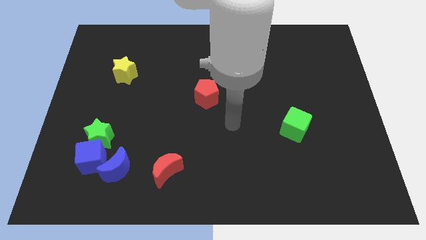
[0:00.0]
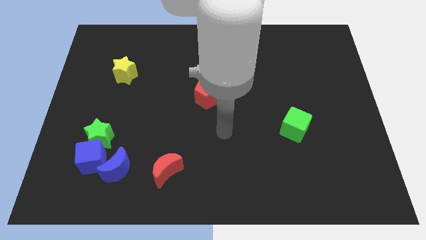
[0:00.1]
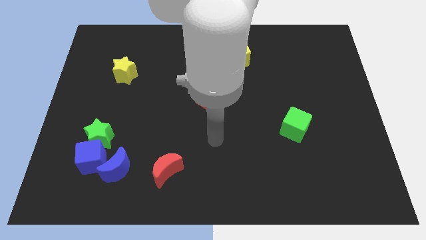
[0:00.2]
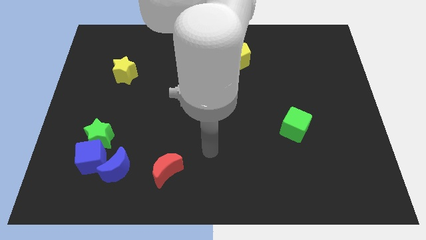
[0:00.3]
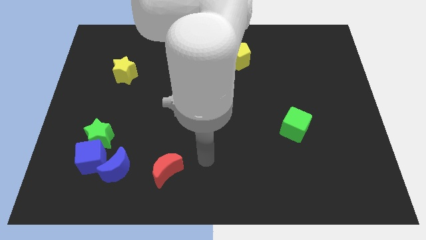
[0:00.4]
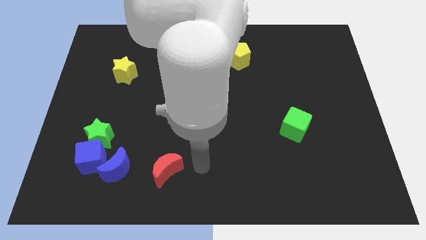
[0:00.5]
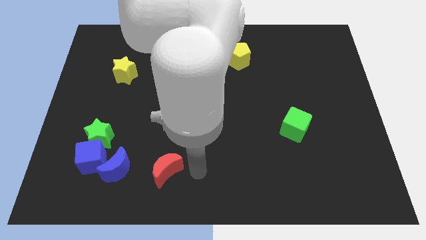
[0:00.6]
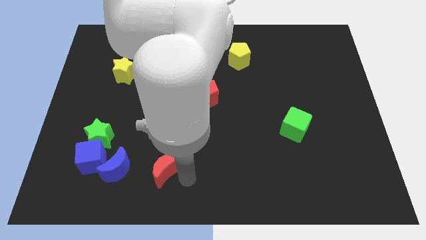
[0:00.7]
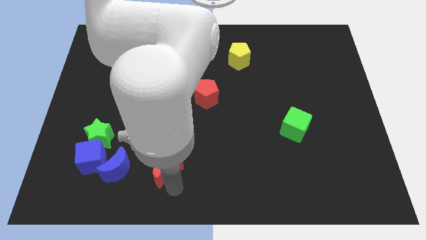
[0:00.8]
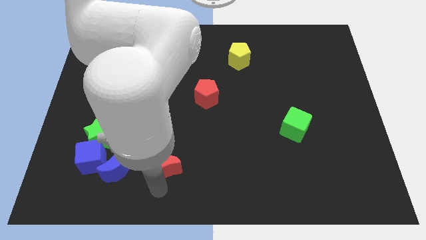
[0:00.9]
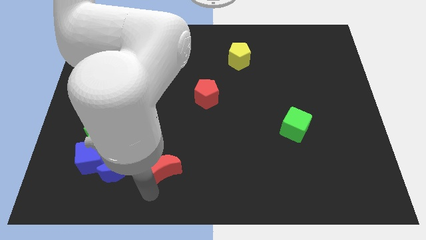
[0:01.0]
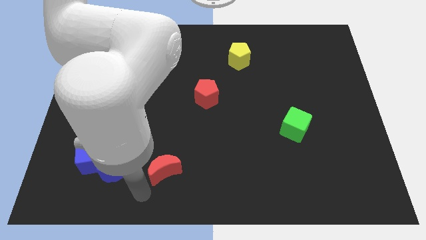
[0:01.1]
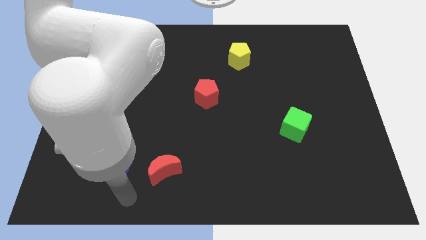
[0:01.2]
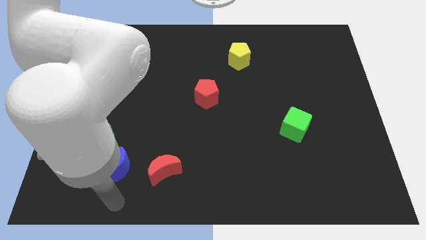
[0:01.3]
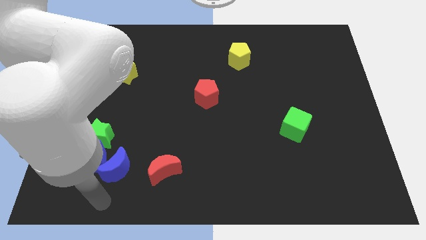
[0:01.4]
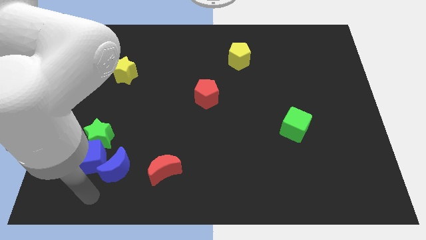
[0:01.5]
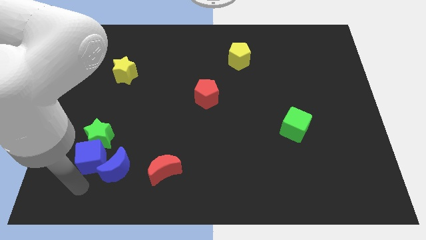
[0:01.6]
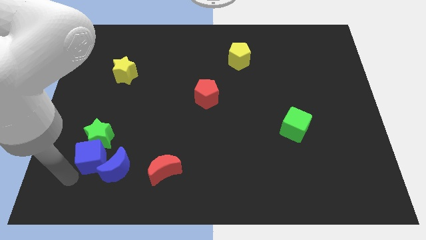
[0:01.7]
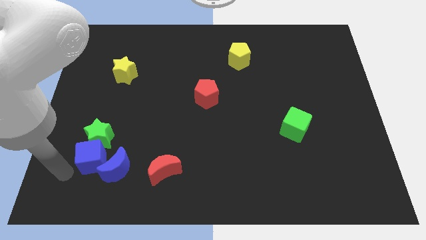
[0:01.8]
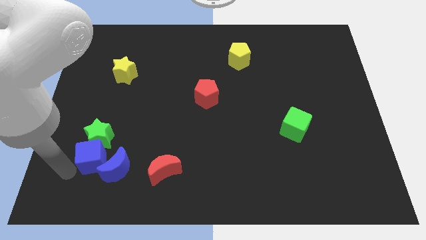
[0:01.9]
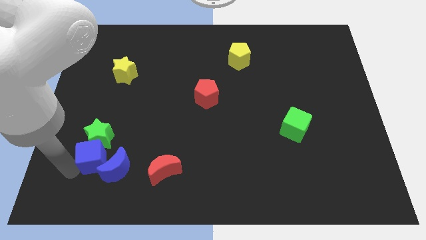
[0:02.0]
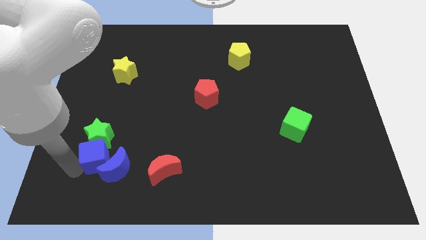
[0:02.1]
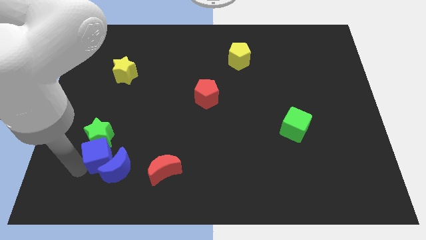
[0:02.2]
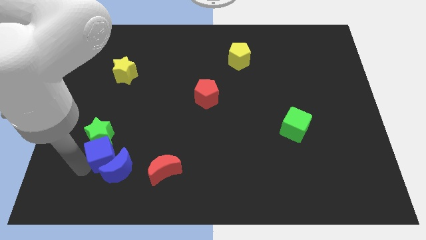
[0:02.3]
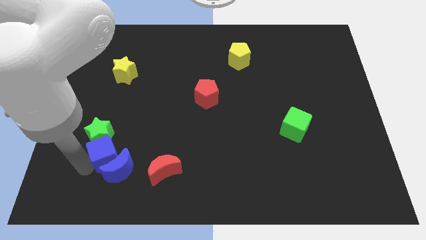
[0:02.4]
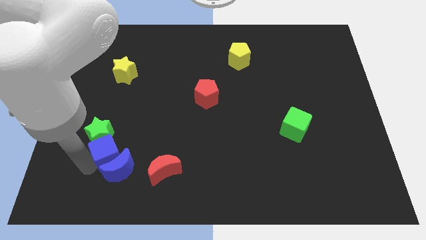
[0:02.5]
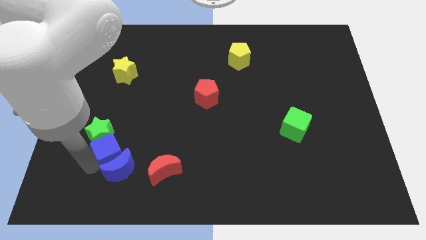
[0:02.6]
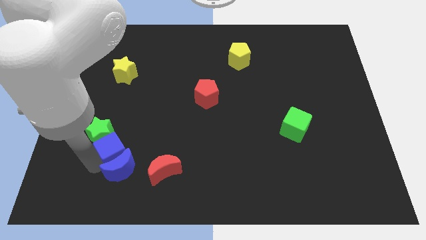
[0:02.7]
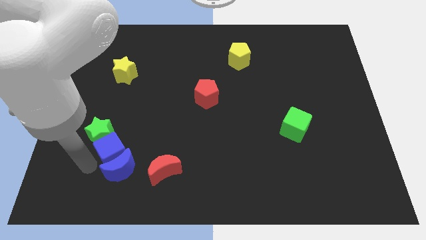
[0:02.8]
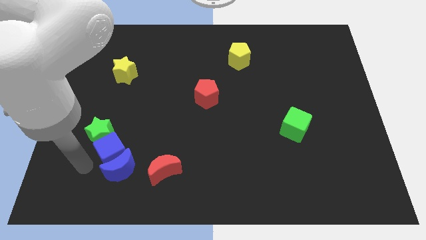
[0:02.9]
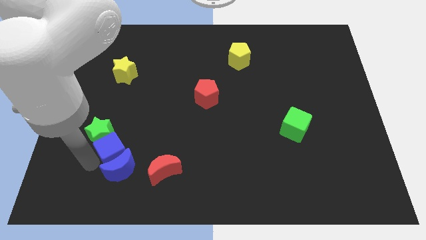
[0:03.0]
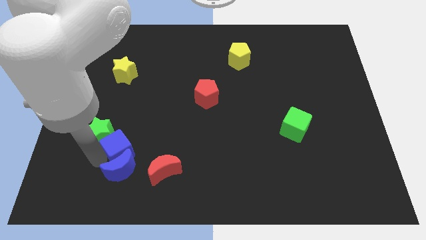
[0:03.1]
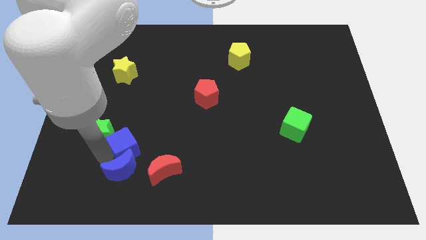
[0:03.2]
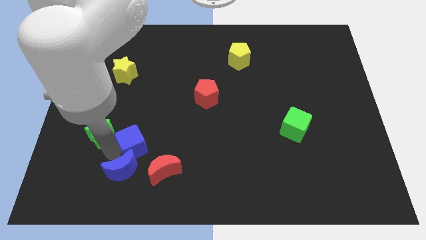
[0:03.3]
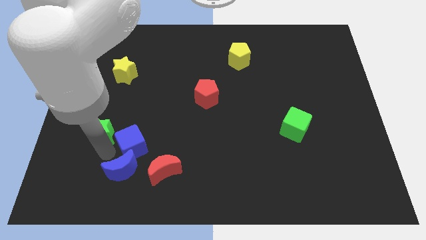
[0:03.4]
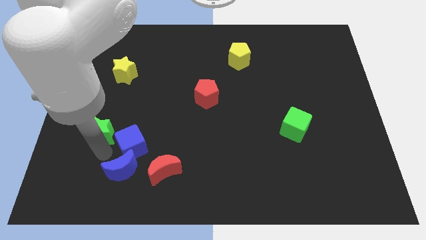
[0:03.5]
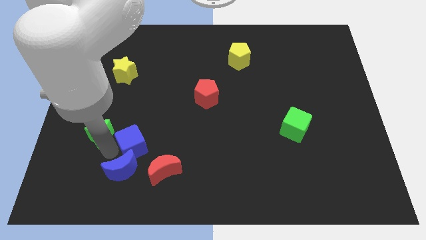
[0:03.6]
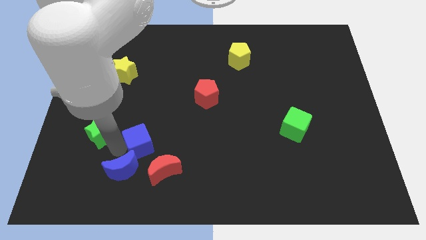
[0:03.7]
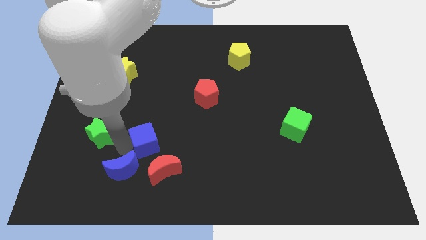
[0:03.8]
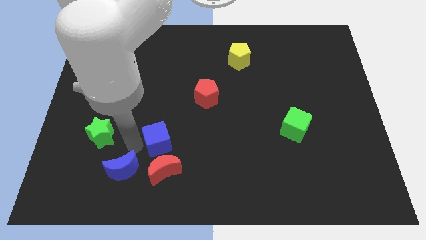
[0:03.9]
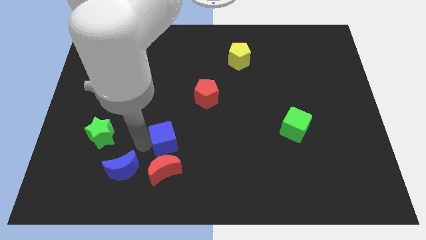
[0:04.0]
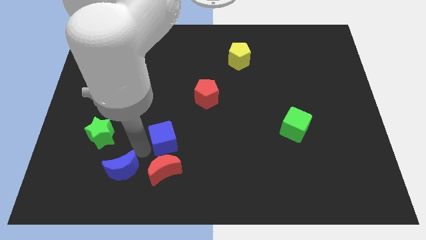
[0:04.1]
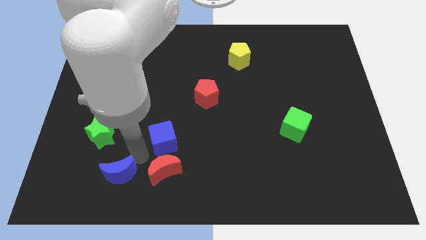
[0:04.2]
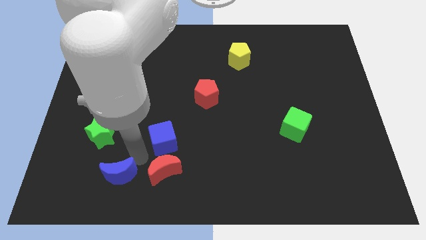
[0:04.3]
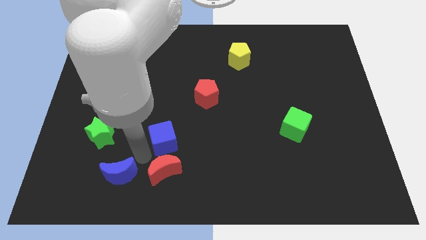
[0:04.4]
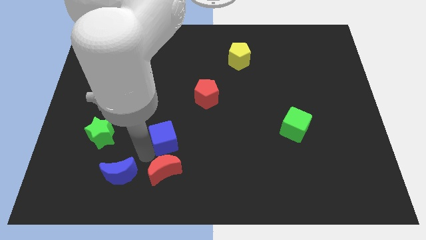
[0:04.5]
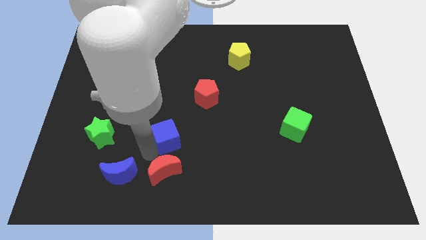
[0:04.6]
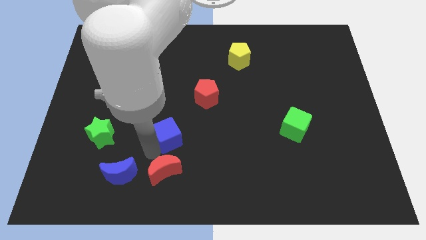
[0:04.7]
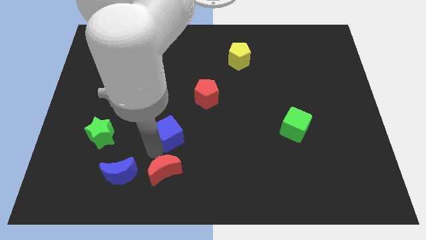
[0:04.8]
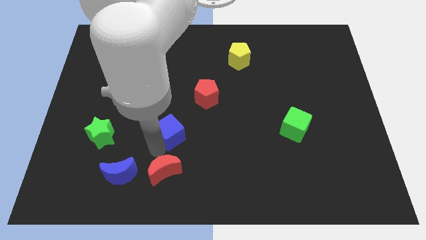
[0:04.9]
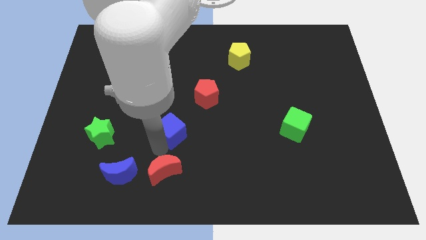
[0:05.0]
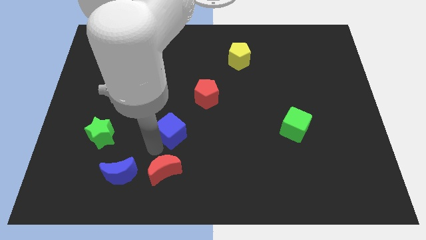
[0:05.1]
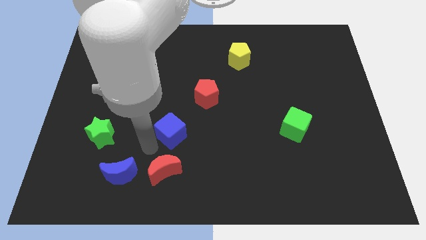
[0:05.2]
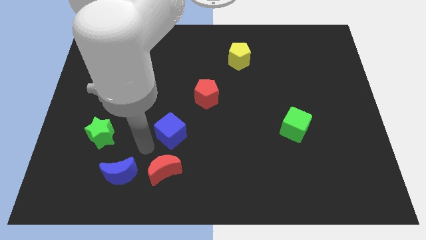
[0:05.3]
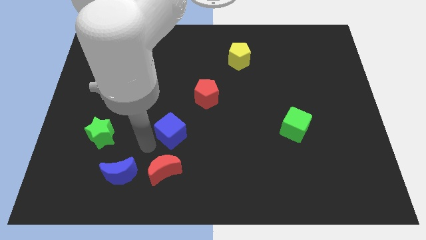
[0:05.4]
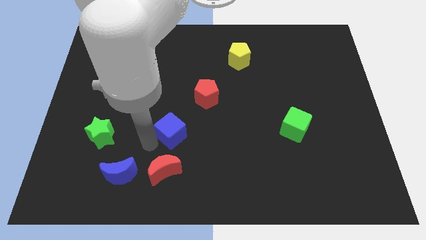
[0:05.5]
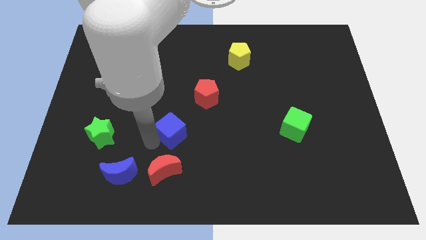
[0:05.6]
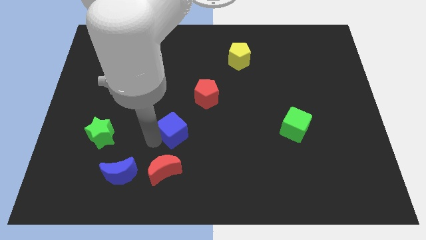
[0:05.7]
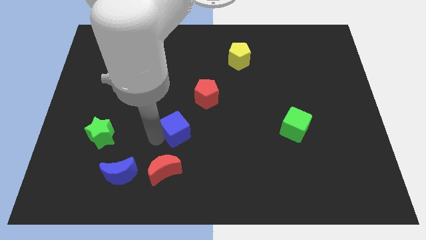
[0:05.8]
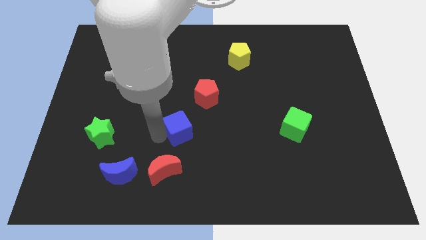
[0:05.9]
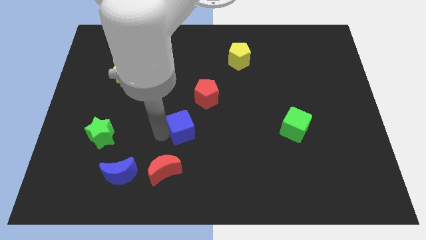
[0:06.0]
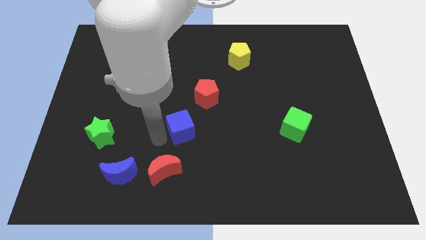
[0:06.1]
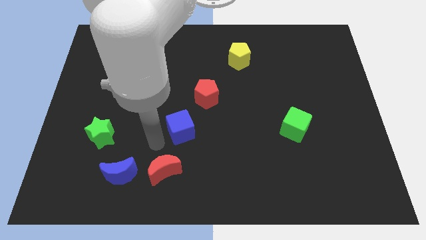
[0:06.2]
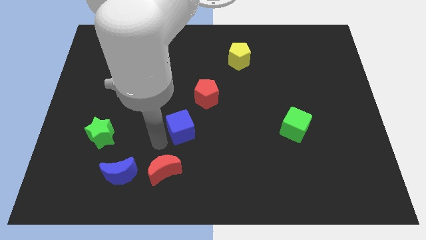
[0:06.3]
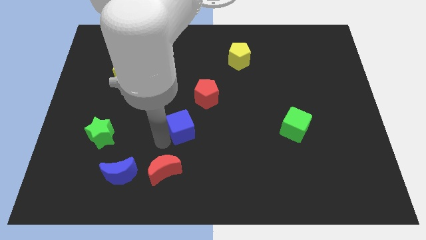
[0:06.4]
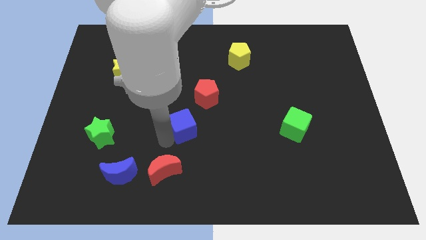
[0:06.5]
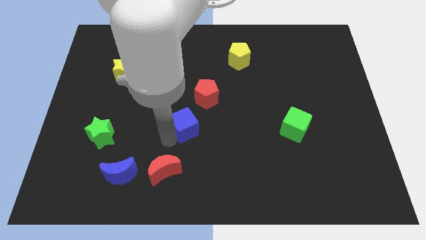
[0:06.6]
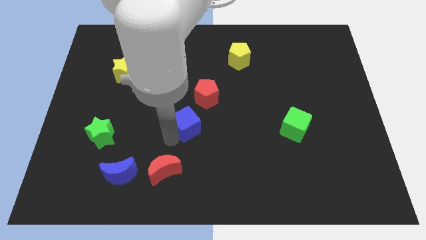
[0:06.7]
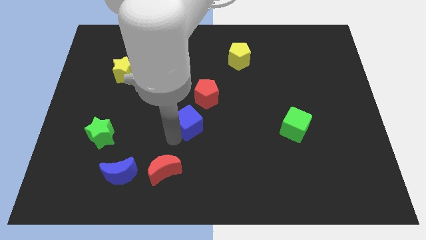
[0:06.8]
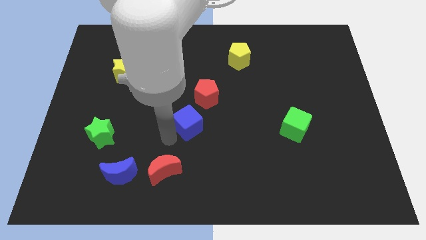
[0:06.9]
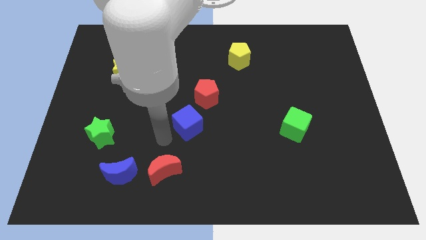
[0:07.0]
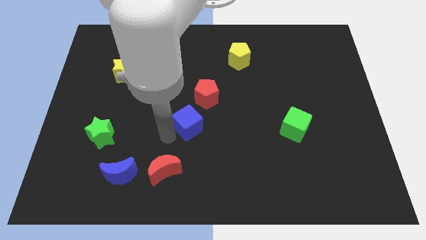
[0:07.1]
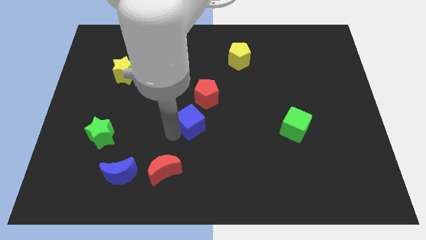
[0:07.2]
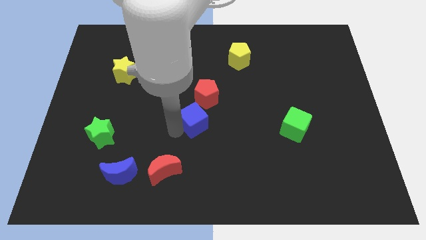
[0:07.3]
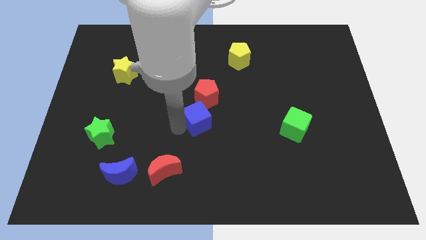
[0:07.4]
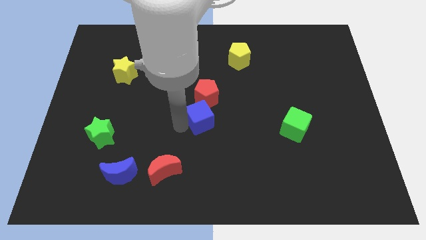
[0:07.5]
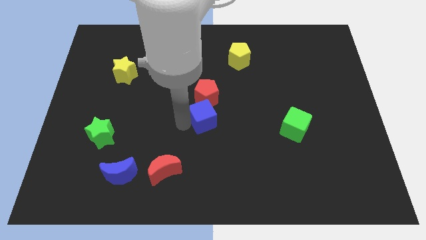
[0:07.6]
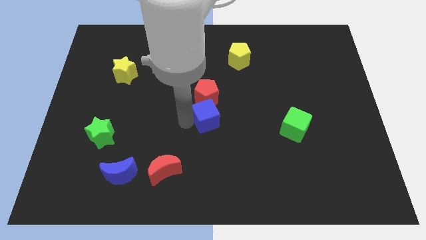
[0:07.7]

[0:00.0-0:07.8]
put the blue cube diagonally down and to the right of the red pentagon

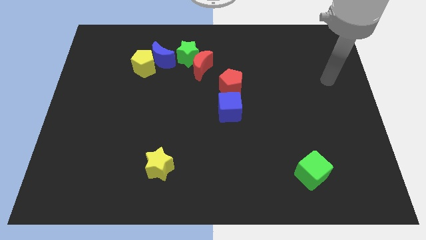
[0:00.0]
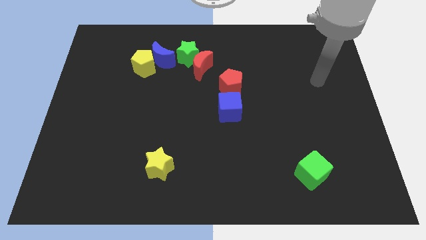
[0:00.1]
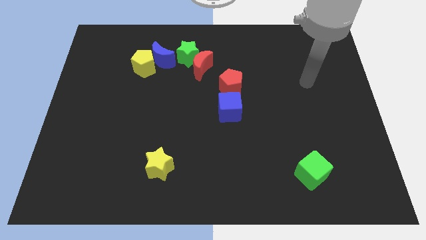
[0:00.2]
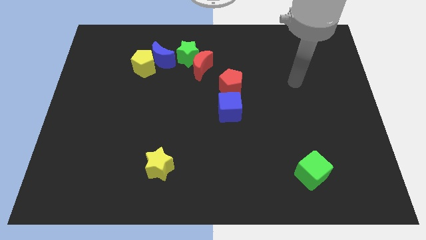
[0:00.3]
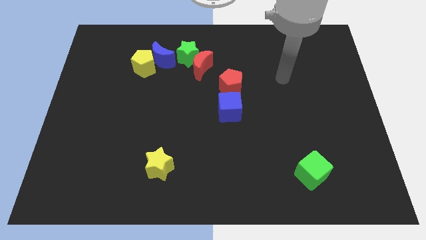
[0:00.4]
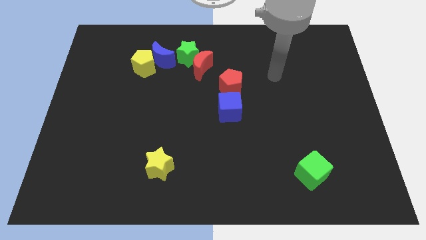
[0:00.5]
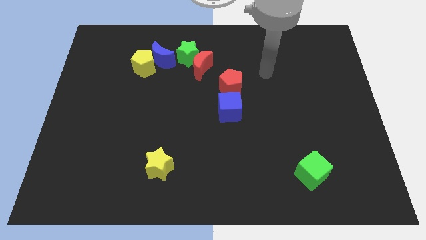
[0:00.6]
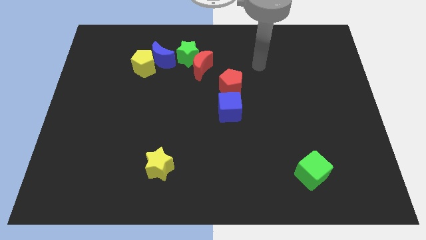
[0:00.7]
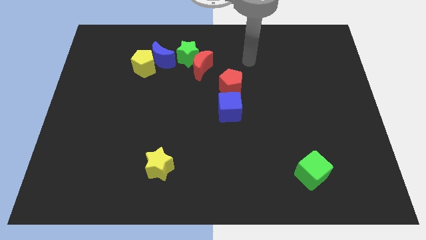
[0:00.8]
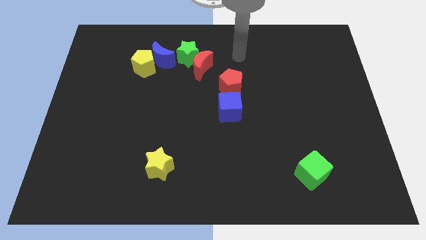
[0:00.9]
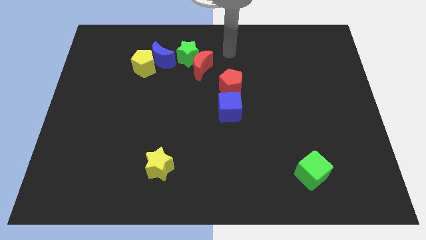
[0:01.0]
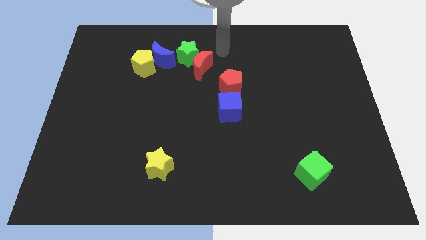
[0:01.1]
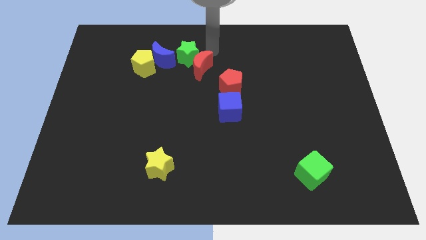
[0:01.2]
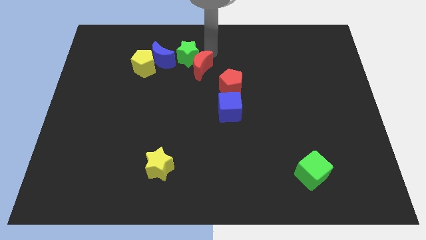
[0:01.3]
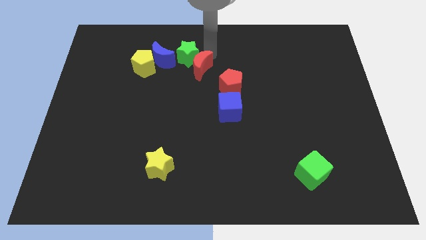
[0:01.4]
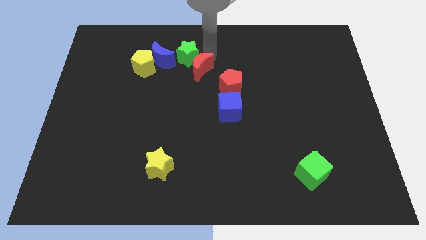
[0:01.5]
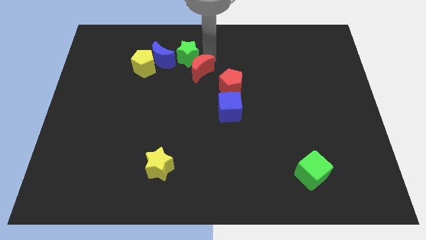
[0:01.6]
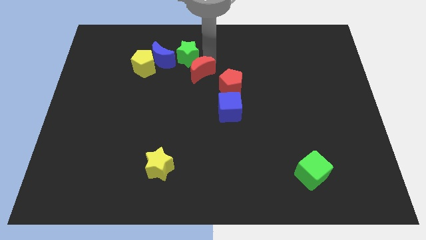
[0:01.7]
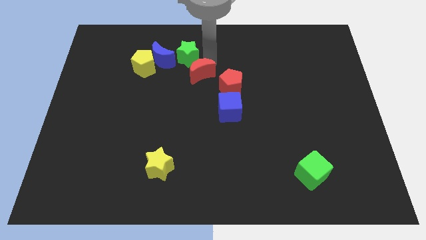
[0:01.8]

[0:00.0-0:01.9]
push the red moon just left of the red pentagon
